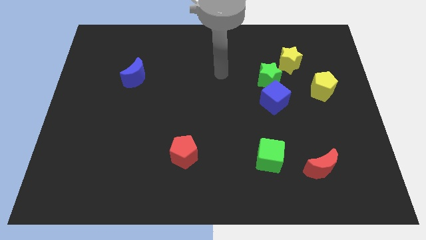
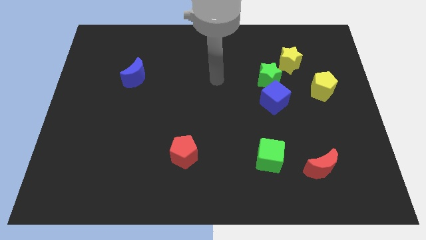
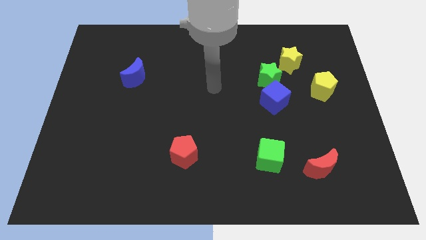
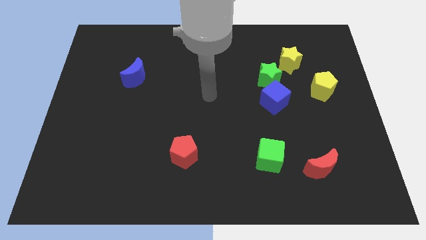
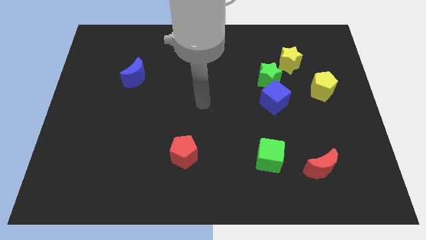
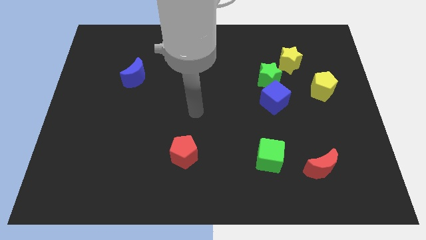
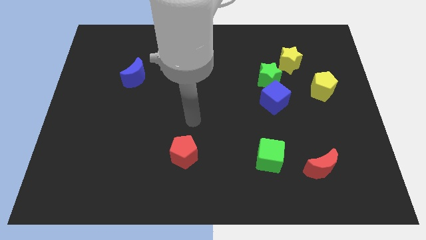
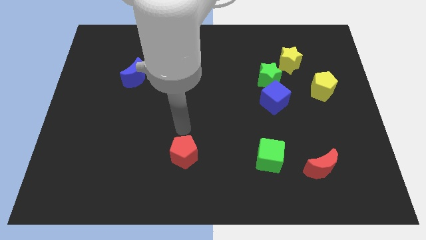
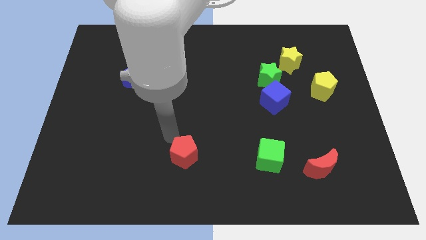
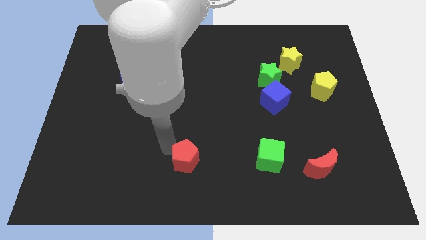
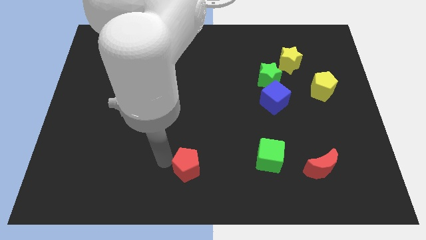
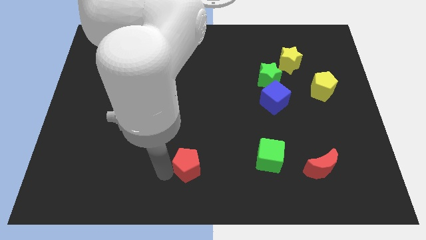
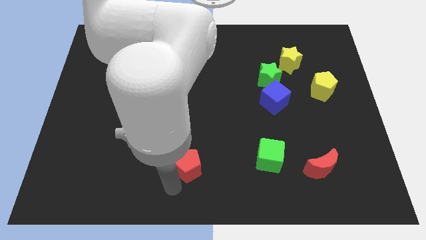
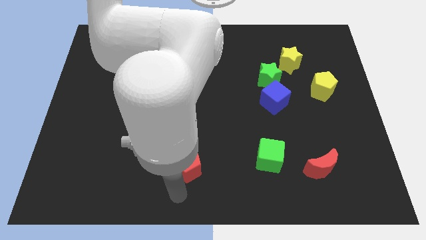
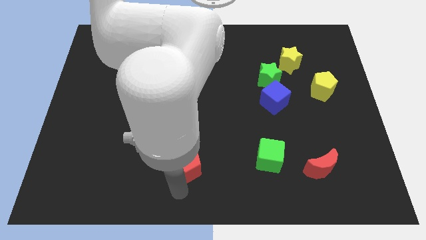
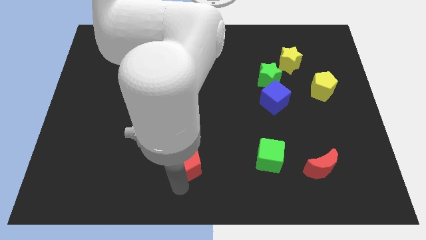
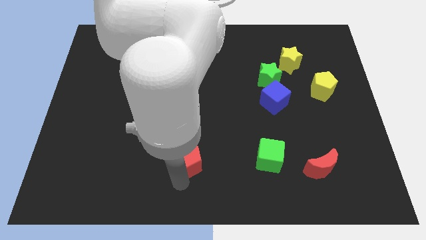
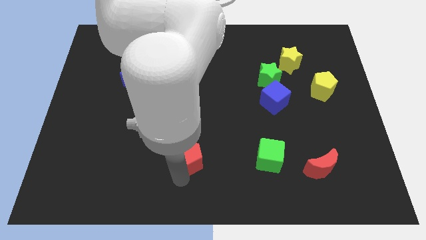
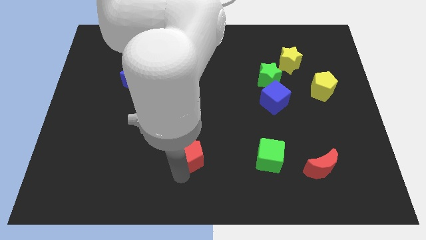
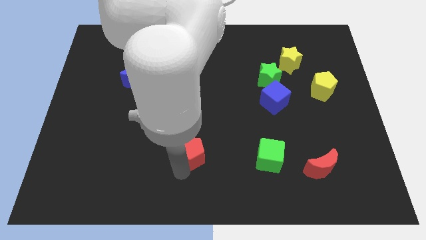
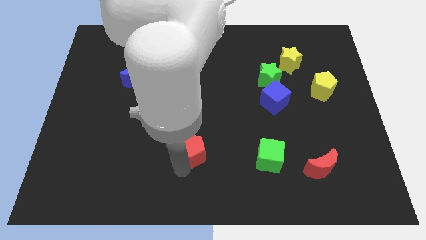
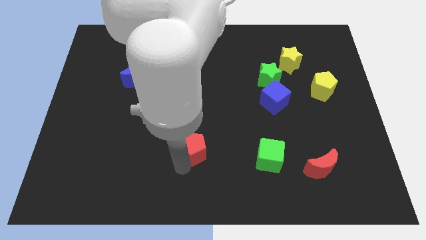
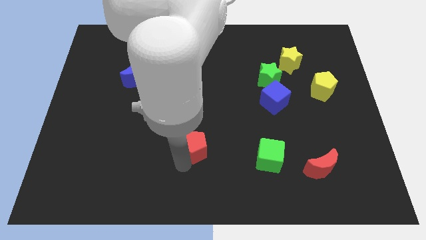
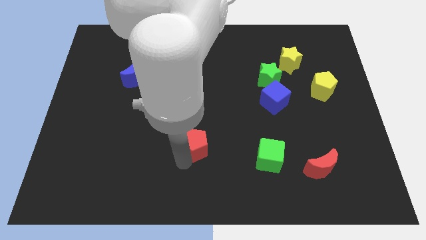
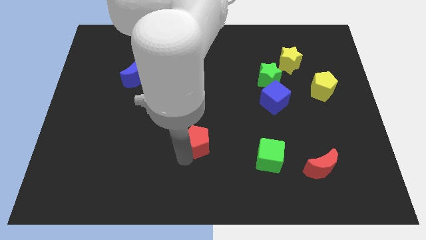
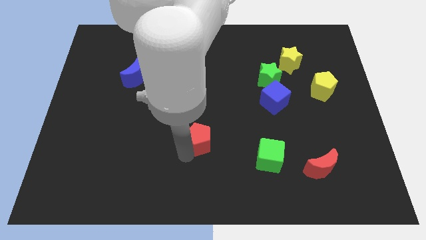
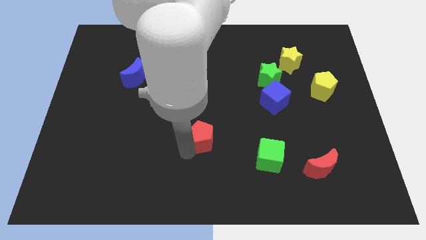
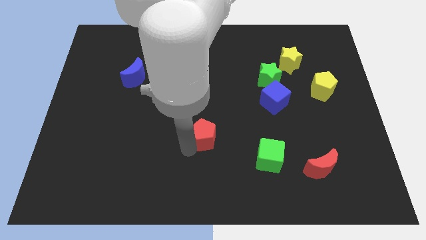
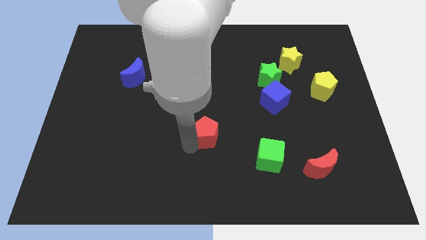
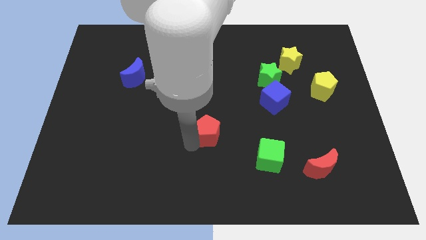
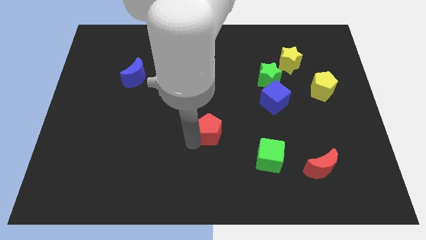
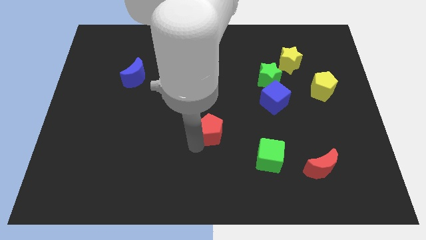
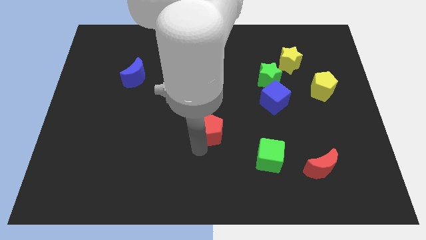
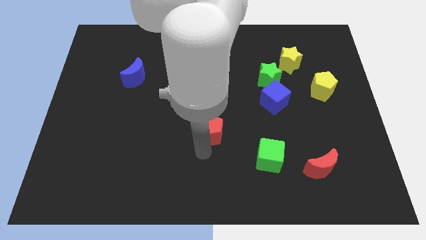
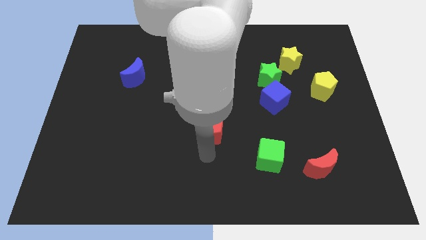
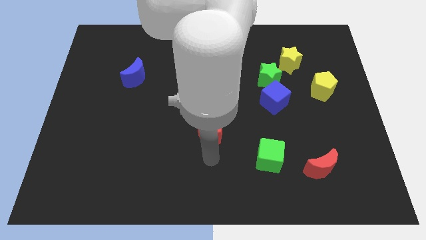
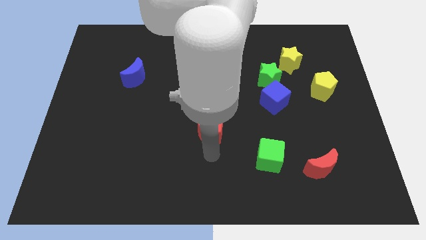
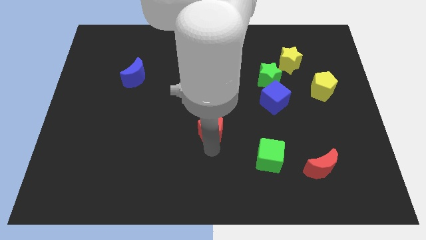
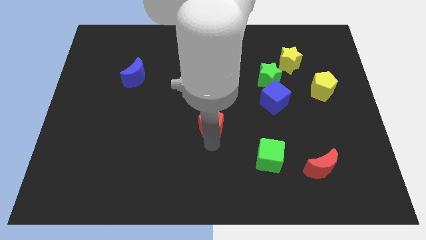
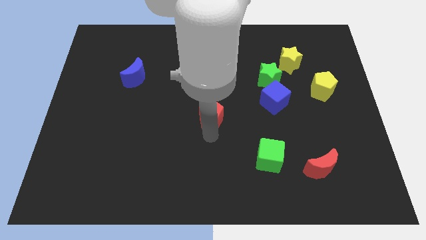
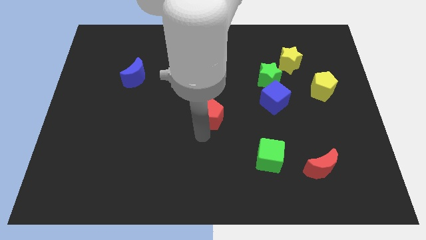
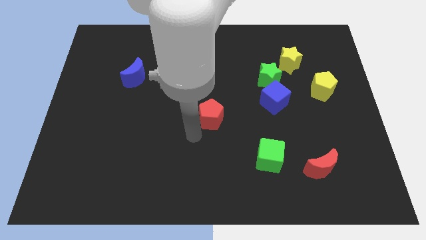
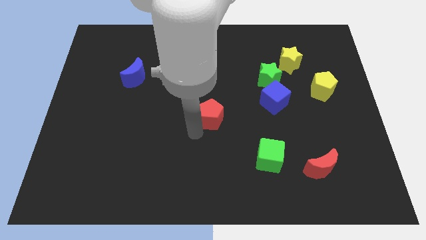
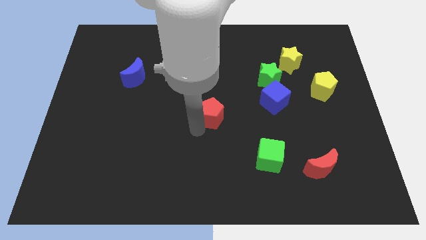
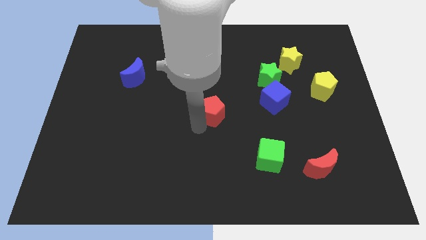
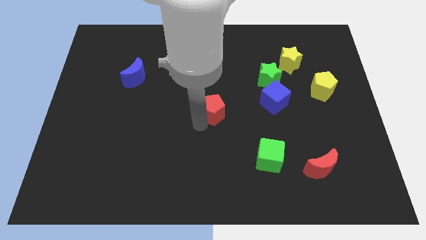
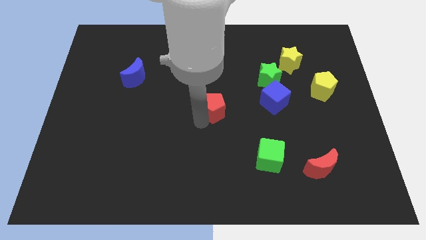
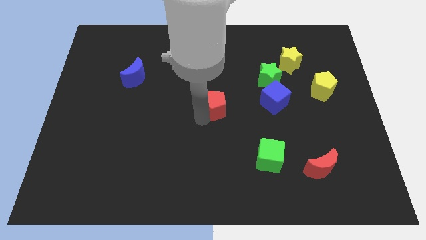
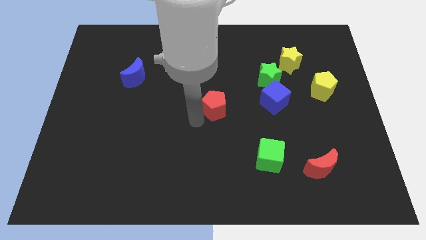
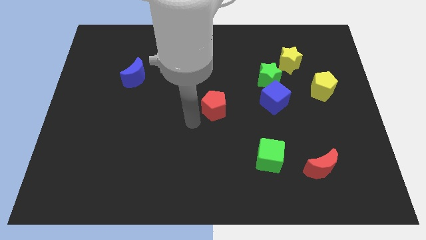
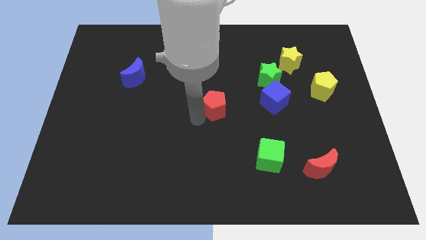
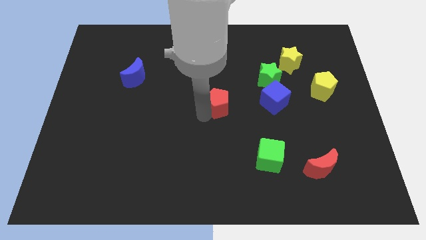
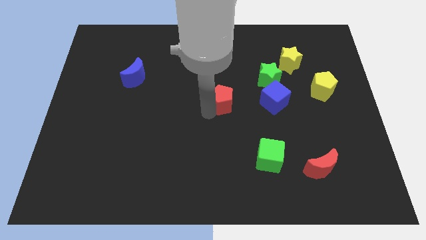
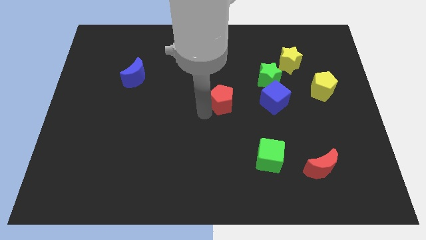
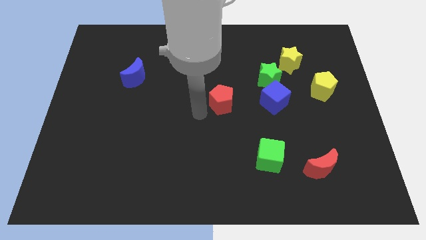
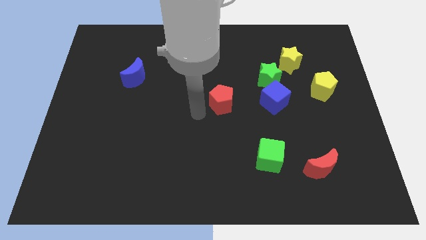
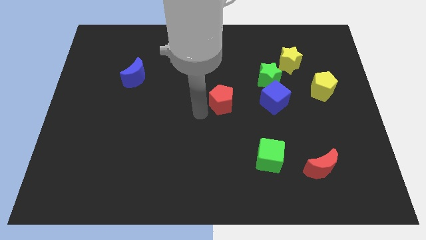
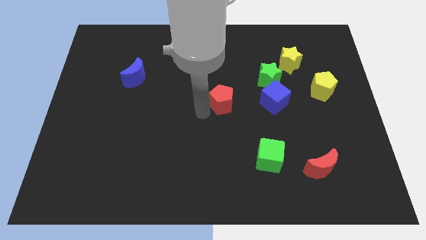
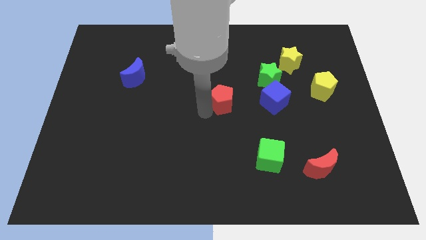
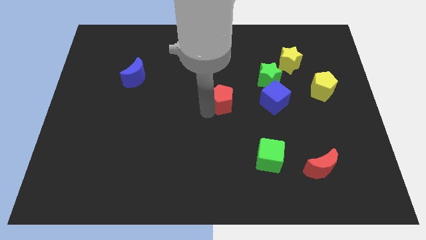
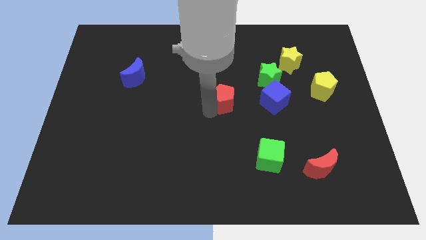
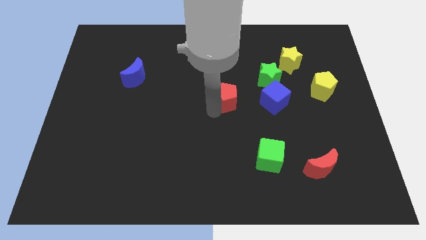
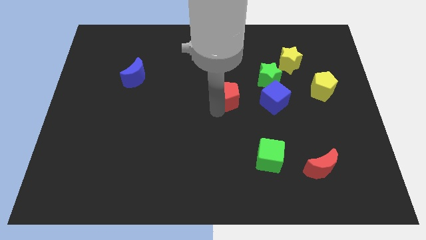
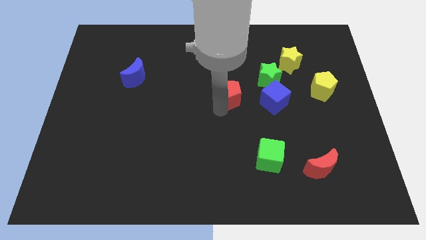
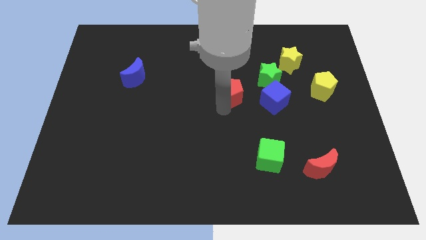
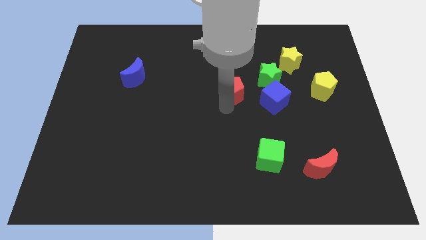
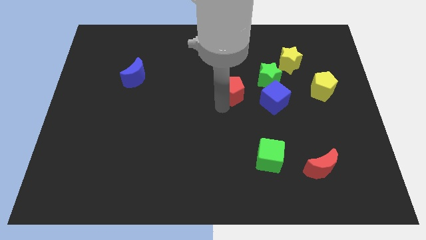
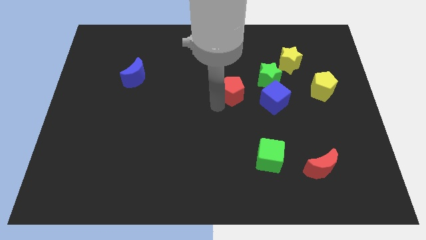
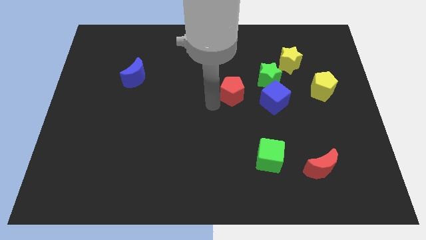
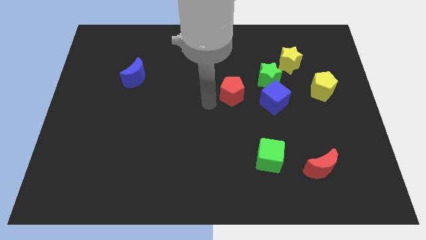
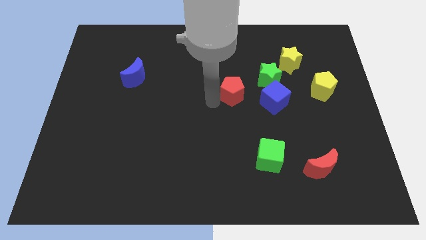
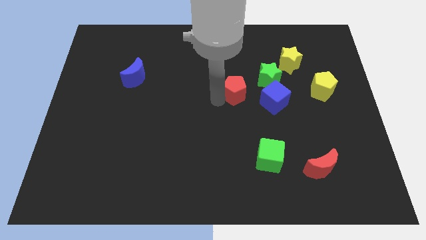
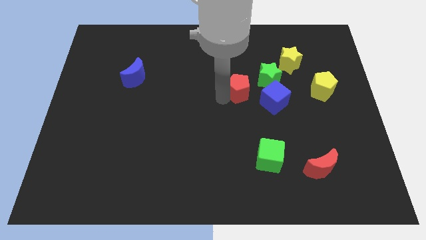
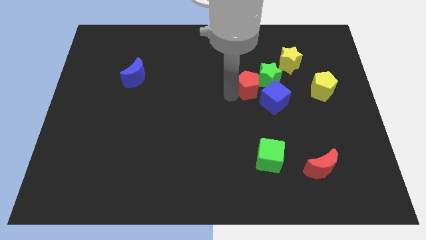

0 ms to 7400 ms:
put the red pentagon to the green star
